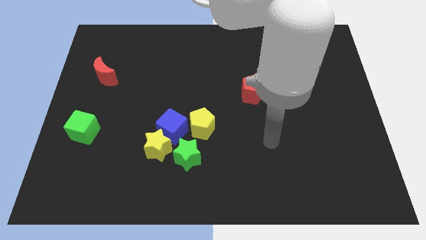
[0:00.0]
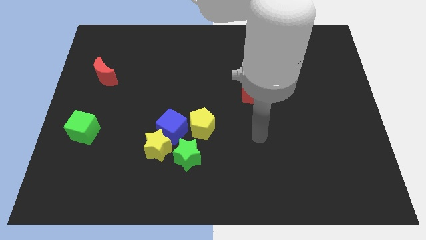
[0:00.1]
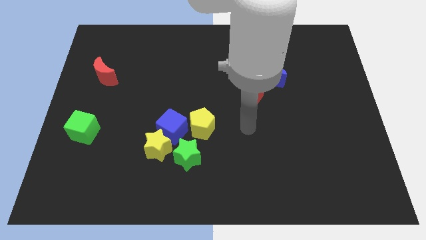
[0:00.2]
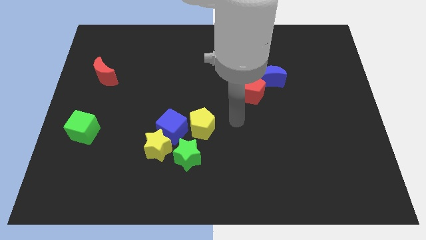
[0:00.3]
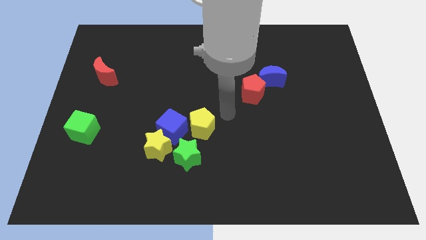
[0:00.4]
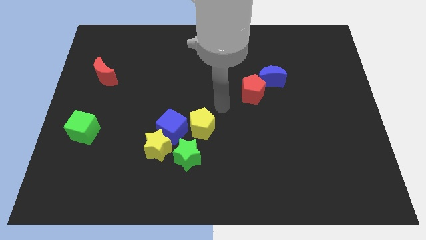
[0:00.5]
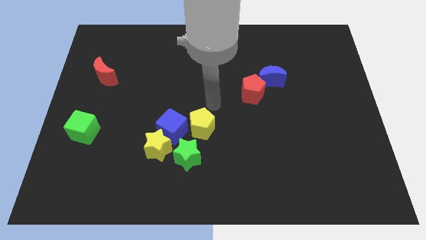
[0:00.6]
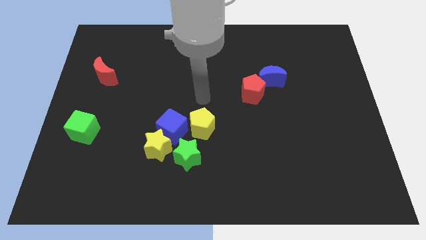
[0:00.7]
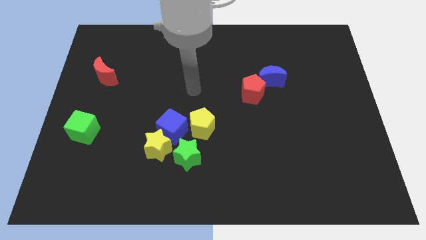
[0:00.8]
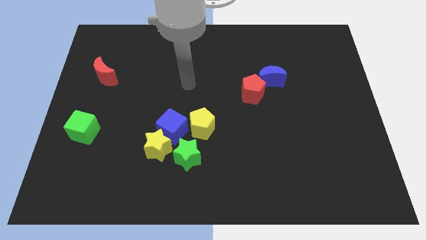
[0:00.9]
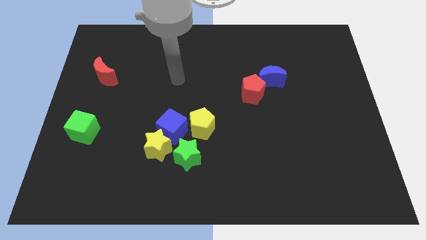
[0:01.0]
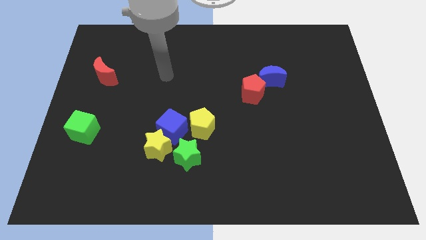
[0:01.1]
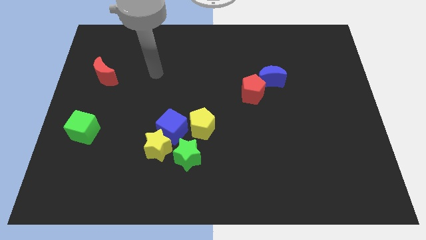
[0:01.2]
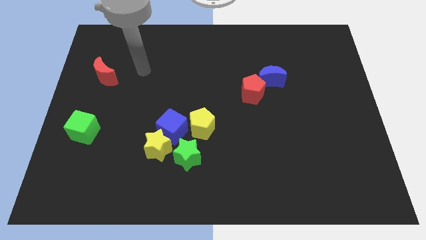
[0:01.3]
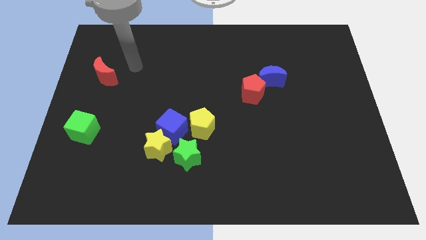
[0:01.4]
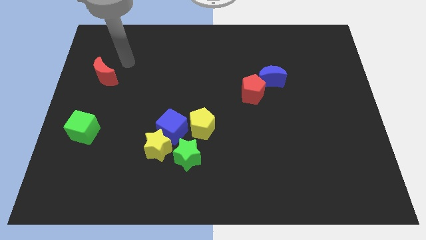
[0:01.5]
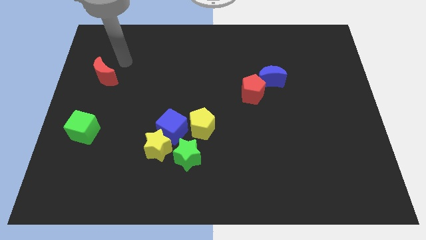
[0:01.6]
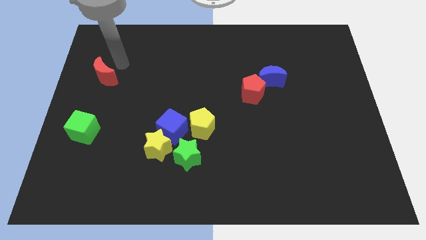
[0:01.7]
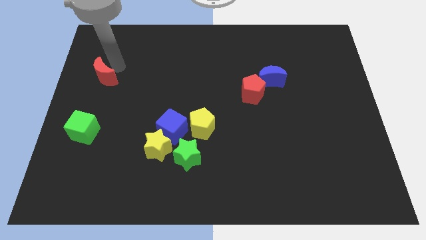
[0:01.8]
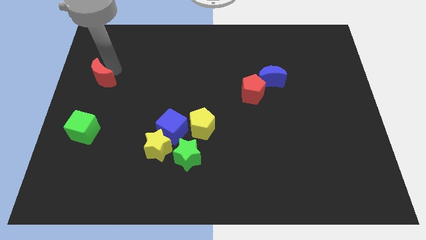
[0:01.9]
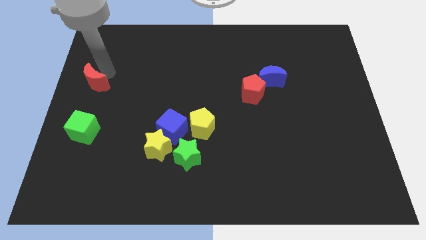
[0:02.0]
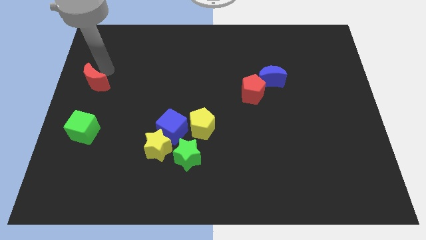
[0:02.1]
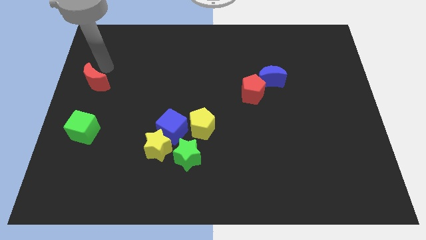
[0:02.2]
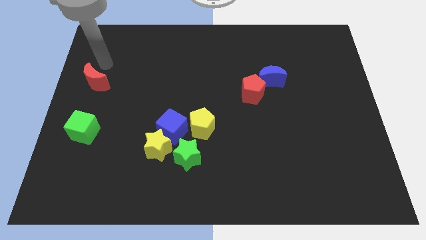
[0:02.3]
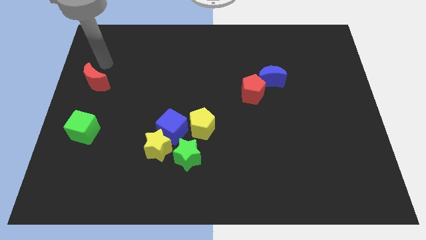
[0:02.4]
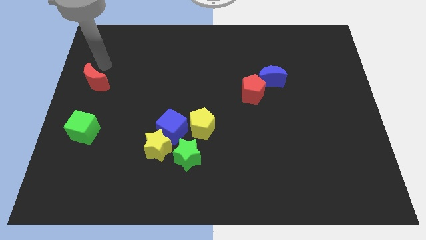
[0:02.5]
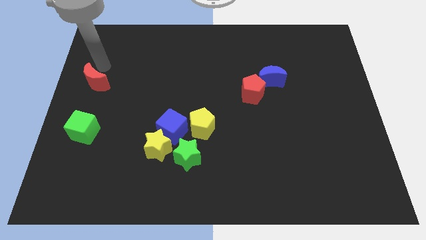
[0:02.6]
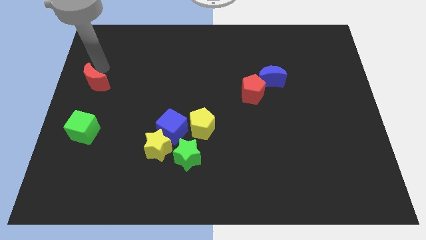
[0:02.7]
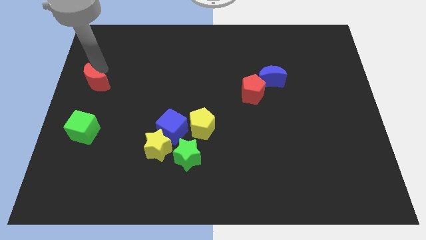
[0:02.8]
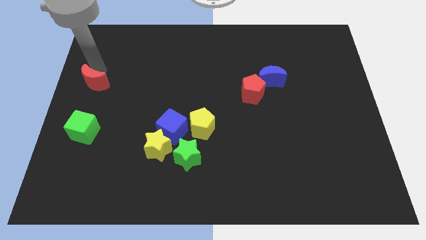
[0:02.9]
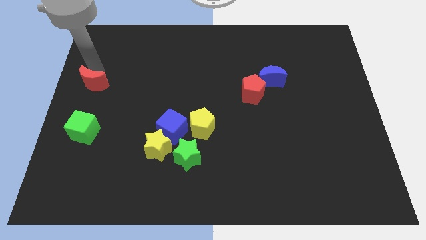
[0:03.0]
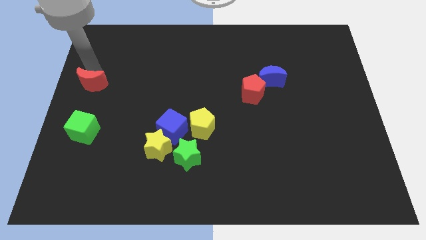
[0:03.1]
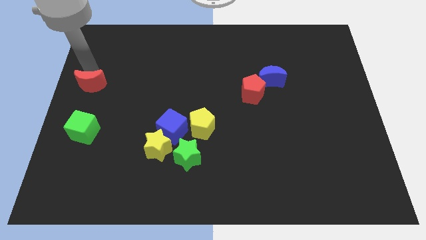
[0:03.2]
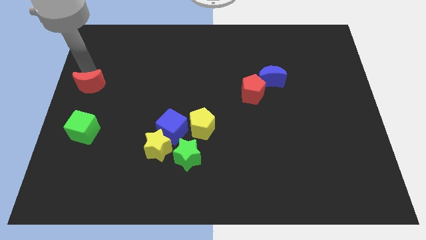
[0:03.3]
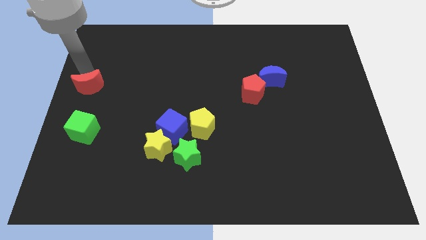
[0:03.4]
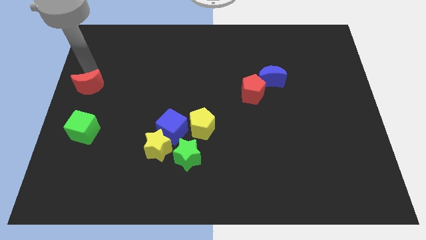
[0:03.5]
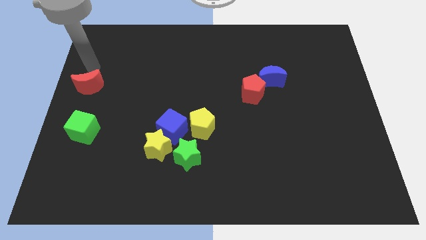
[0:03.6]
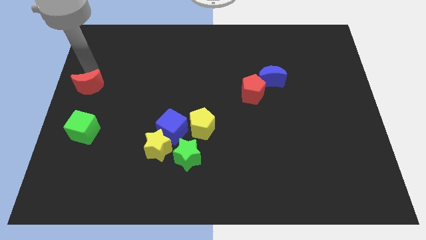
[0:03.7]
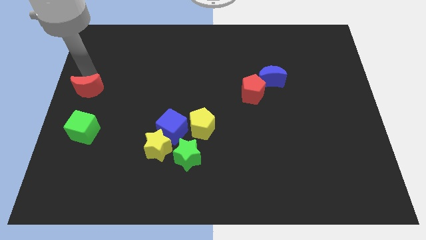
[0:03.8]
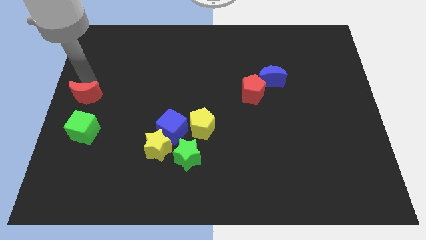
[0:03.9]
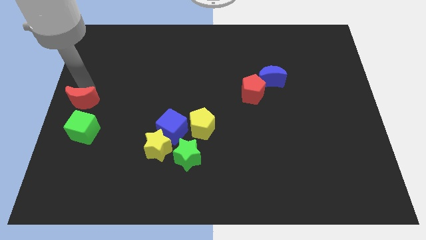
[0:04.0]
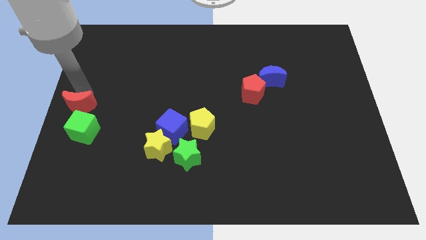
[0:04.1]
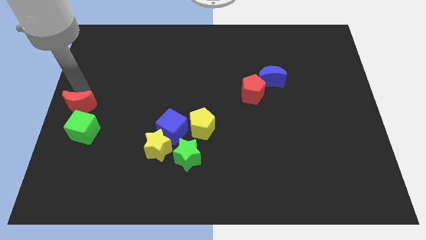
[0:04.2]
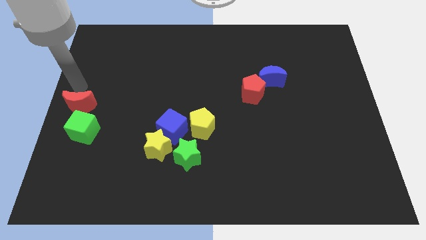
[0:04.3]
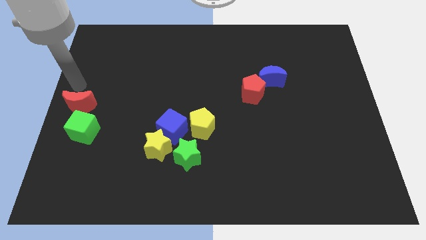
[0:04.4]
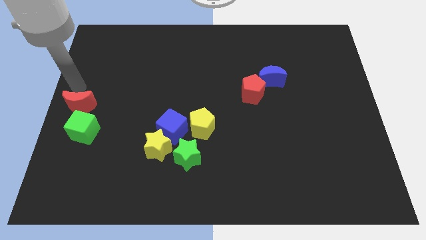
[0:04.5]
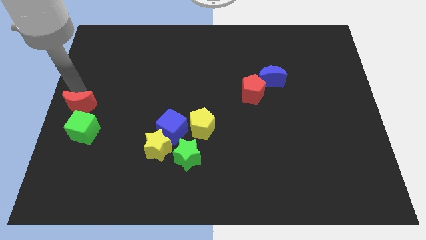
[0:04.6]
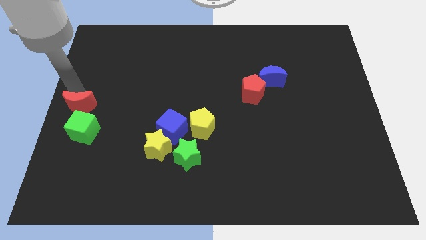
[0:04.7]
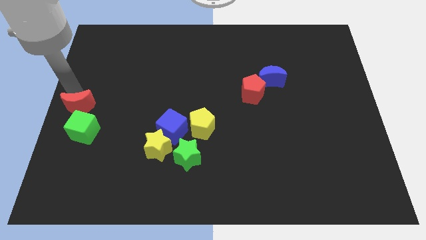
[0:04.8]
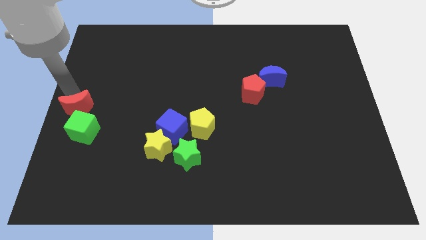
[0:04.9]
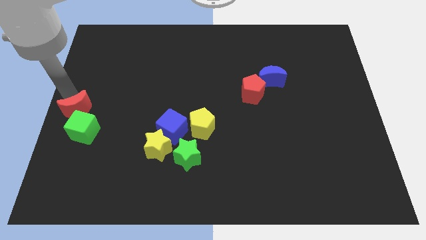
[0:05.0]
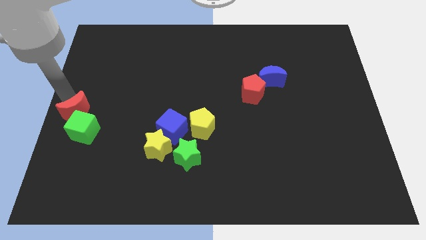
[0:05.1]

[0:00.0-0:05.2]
push the red moon next to the green cube

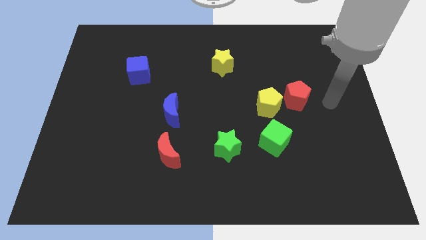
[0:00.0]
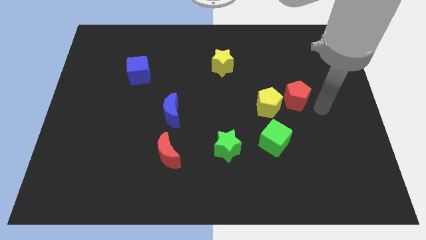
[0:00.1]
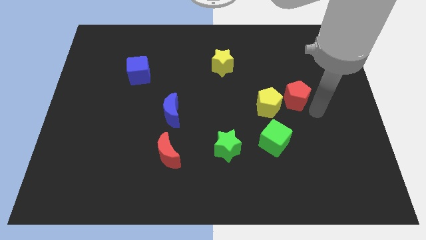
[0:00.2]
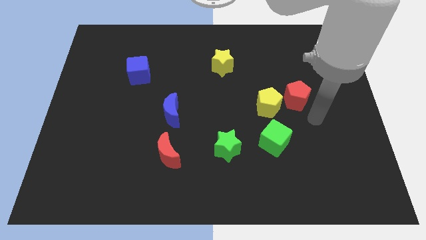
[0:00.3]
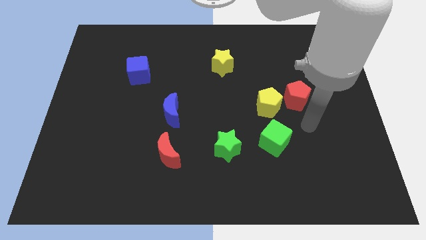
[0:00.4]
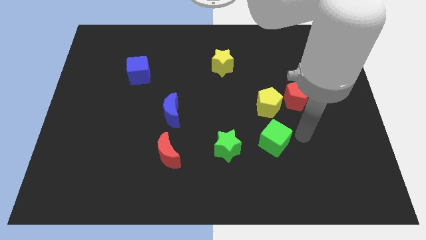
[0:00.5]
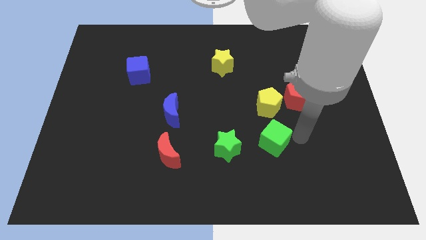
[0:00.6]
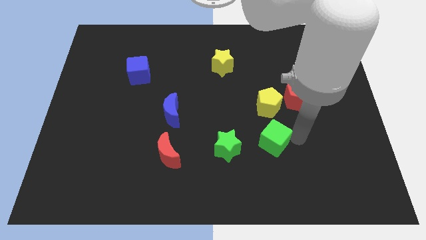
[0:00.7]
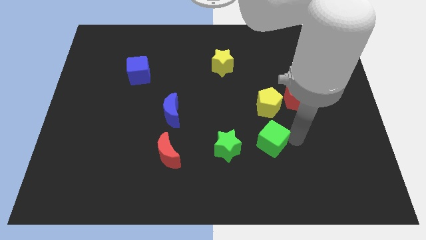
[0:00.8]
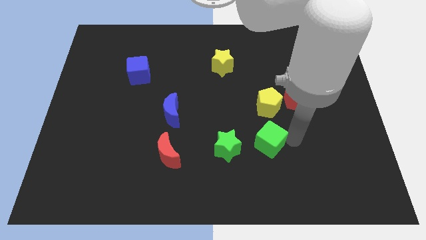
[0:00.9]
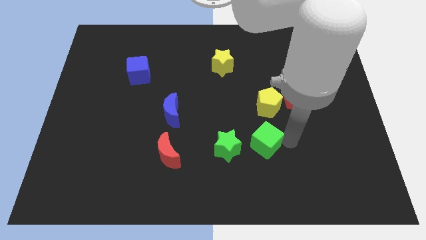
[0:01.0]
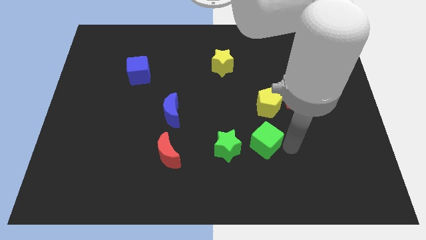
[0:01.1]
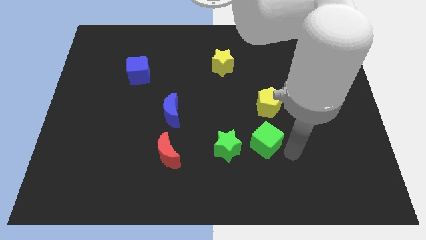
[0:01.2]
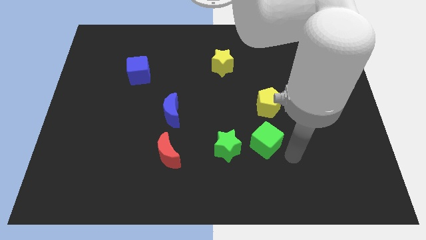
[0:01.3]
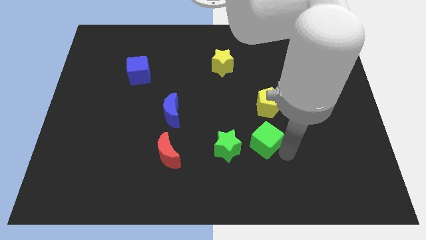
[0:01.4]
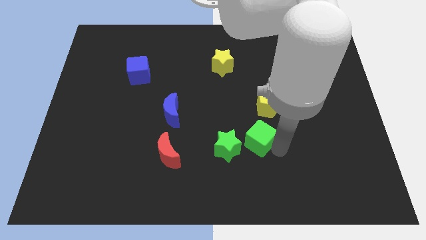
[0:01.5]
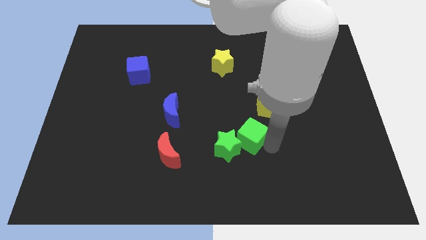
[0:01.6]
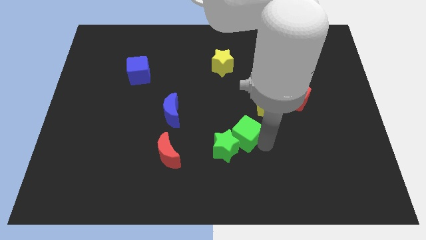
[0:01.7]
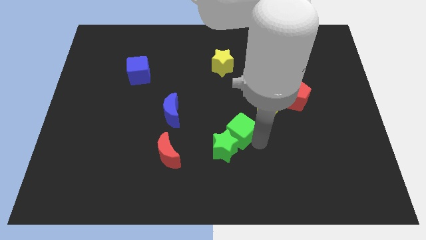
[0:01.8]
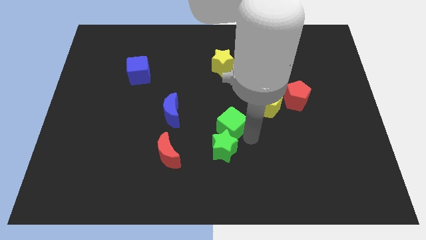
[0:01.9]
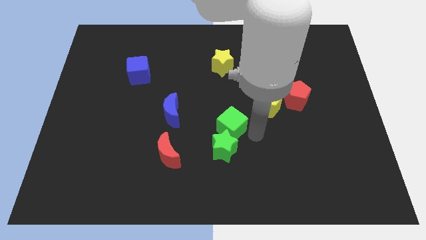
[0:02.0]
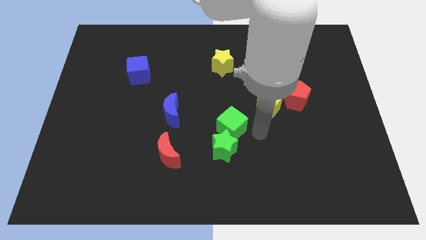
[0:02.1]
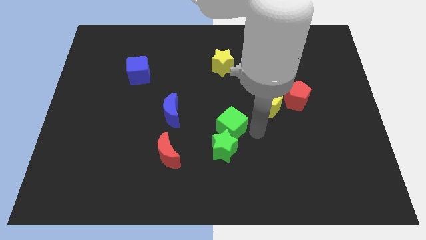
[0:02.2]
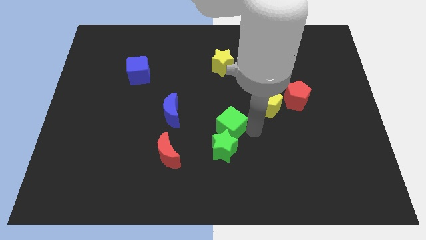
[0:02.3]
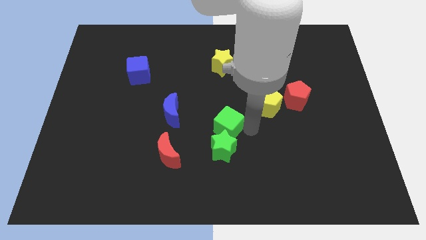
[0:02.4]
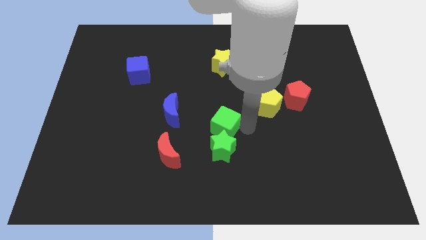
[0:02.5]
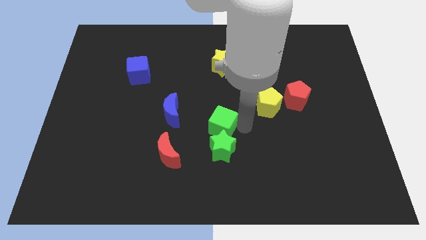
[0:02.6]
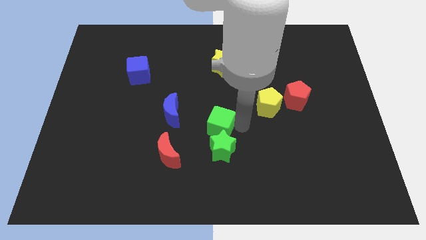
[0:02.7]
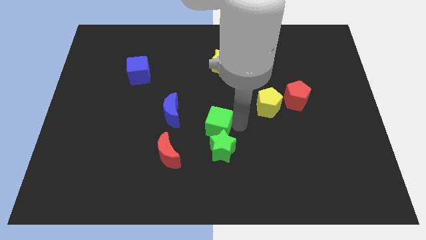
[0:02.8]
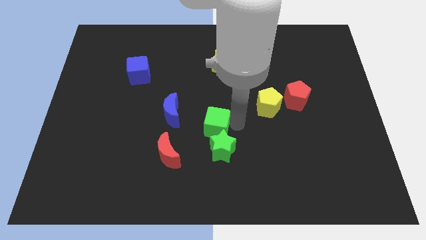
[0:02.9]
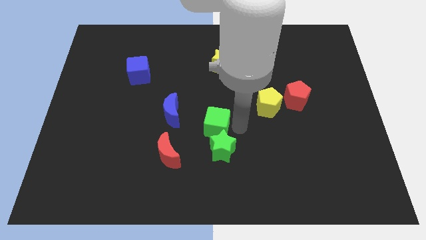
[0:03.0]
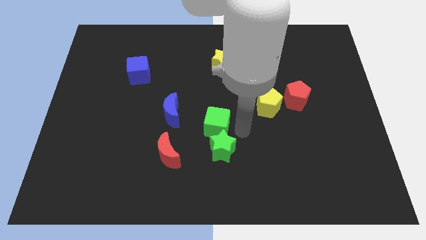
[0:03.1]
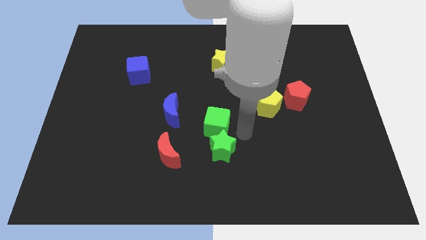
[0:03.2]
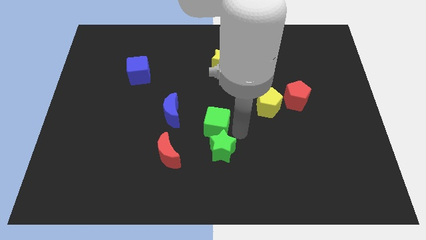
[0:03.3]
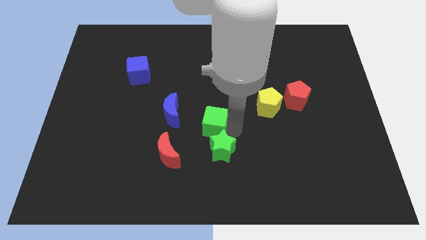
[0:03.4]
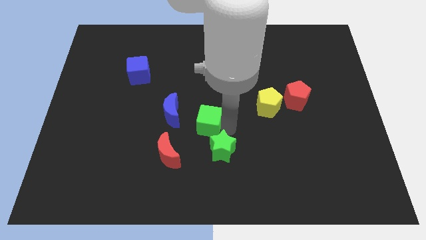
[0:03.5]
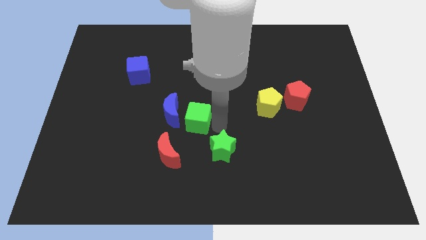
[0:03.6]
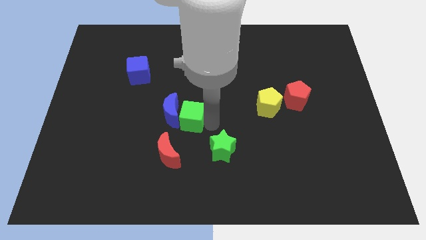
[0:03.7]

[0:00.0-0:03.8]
move the green cube to the blue moon
